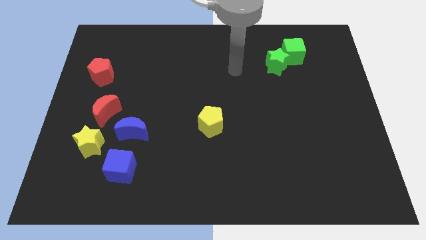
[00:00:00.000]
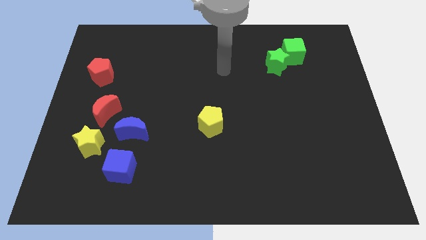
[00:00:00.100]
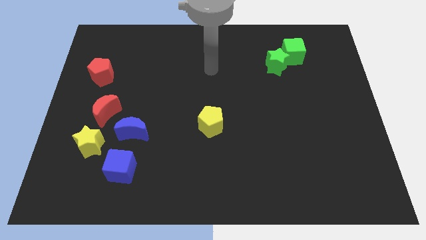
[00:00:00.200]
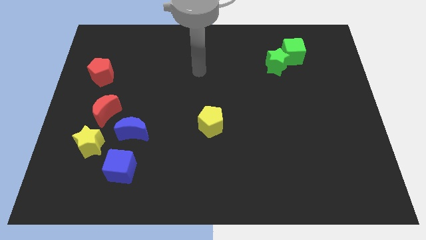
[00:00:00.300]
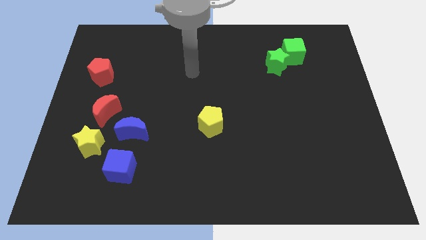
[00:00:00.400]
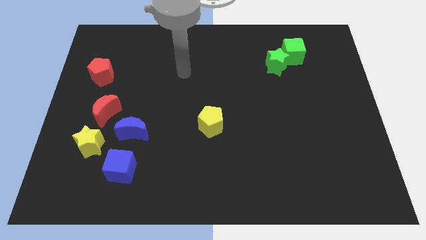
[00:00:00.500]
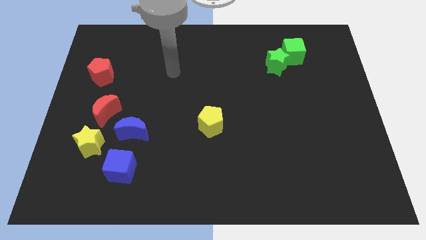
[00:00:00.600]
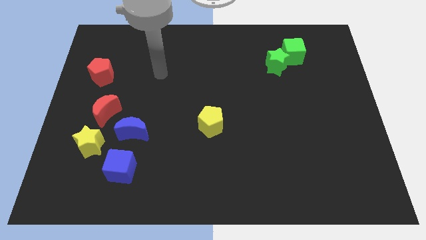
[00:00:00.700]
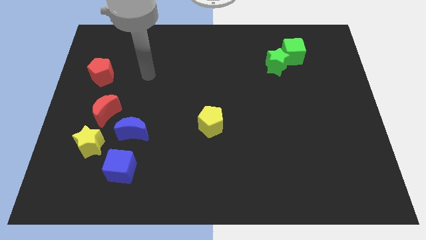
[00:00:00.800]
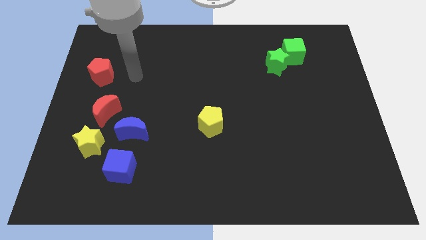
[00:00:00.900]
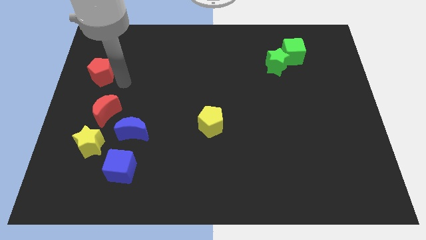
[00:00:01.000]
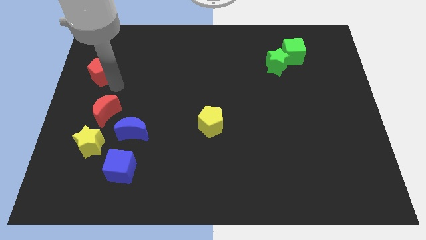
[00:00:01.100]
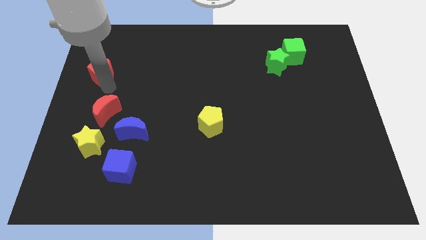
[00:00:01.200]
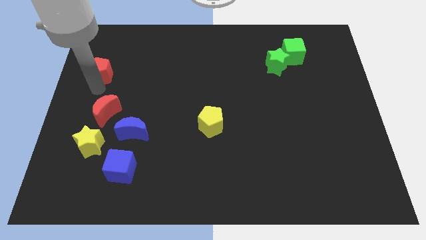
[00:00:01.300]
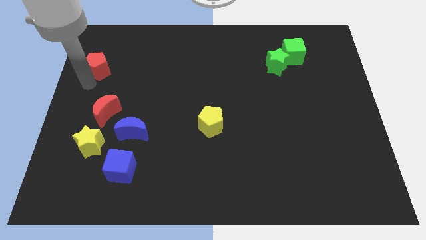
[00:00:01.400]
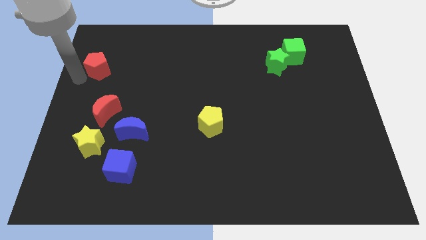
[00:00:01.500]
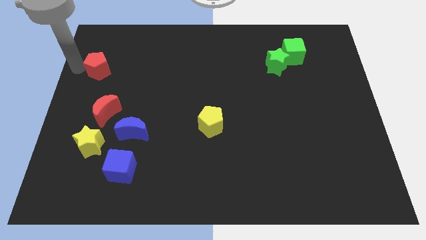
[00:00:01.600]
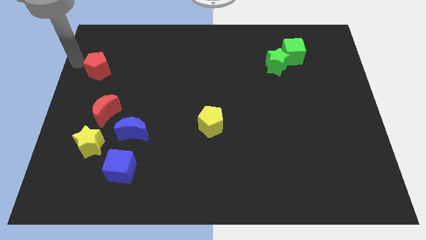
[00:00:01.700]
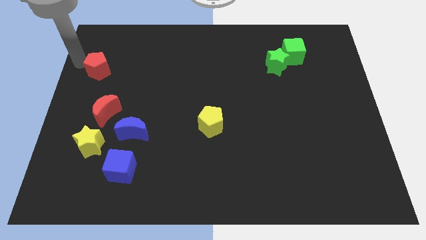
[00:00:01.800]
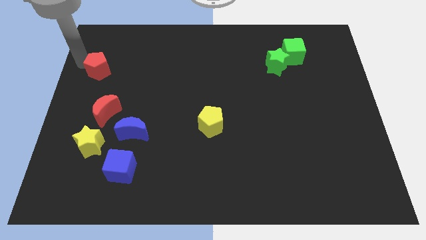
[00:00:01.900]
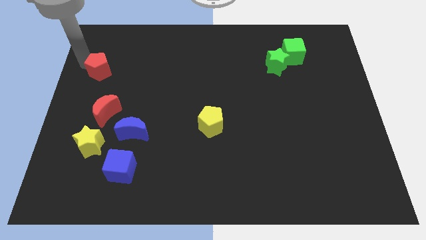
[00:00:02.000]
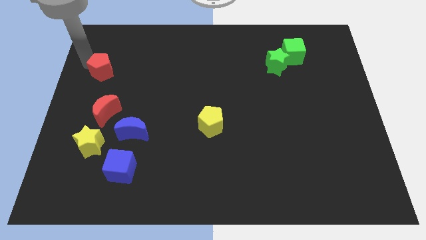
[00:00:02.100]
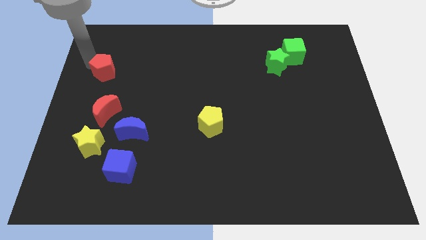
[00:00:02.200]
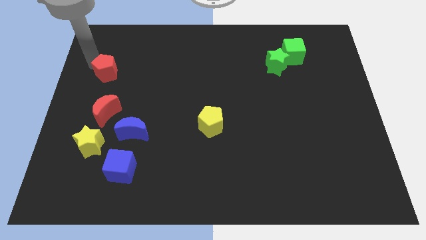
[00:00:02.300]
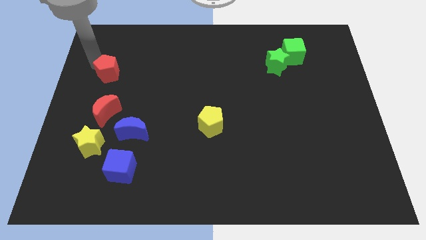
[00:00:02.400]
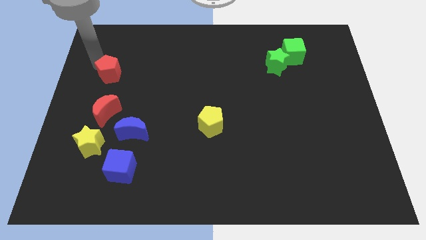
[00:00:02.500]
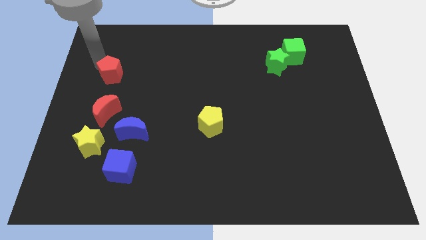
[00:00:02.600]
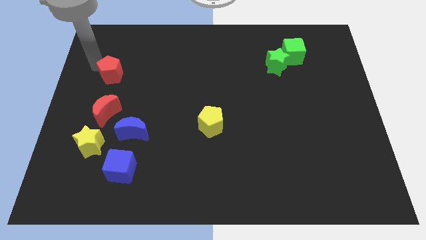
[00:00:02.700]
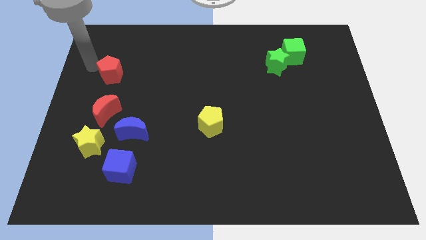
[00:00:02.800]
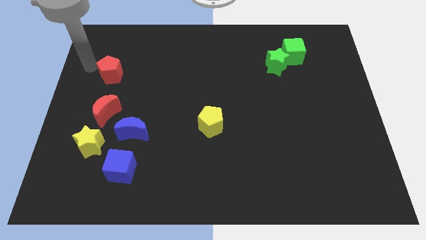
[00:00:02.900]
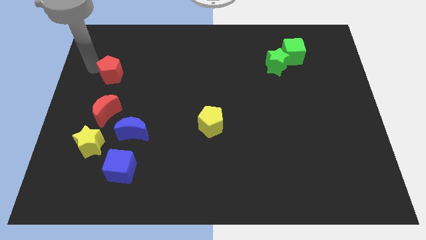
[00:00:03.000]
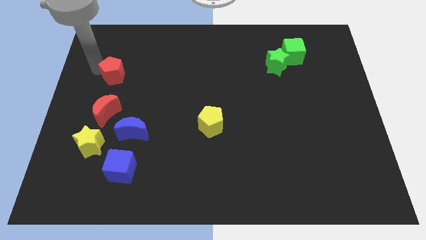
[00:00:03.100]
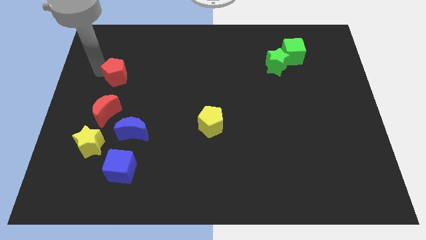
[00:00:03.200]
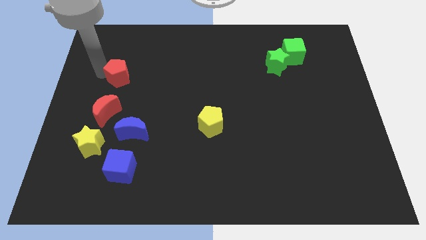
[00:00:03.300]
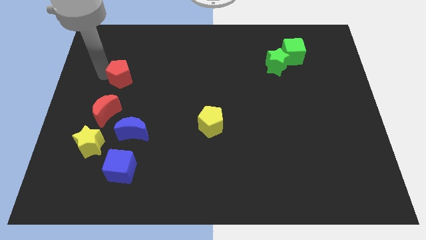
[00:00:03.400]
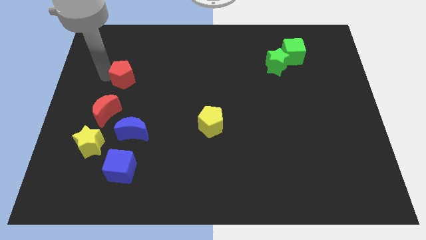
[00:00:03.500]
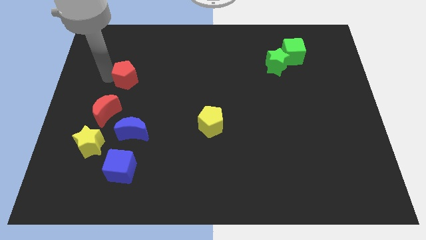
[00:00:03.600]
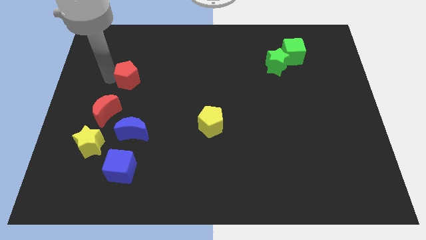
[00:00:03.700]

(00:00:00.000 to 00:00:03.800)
slightly push the red pentagon right

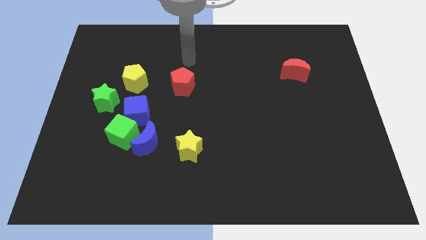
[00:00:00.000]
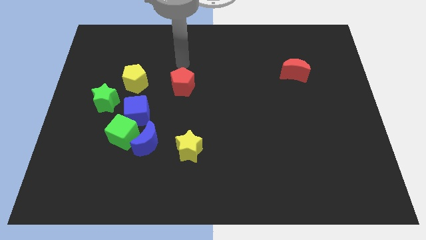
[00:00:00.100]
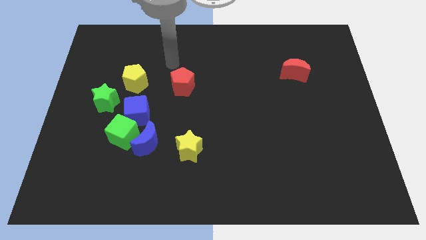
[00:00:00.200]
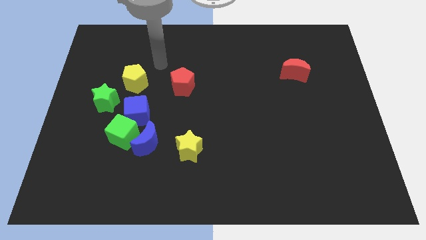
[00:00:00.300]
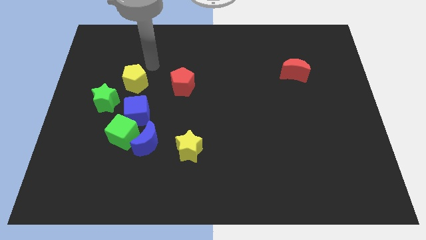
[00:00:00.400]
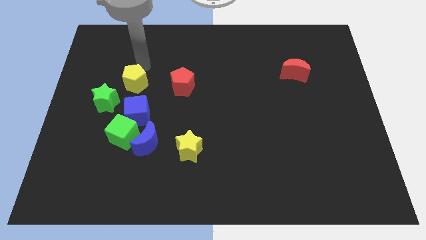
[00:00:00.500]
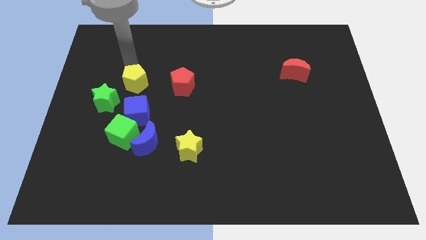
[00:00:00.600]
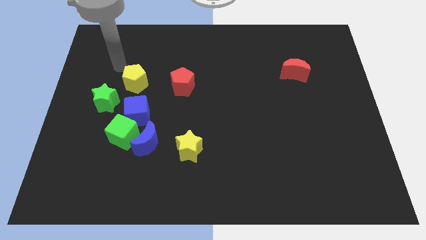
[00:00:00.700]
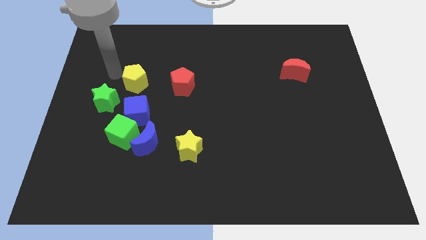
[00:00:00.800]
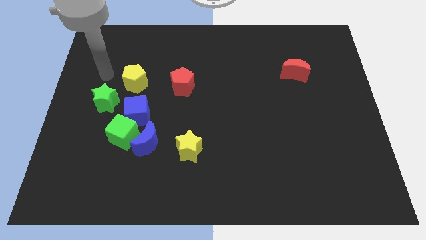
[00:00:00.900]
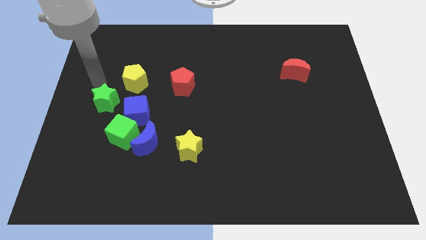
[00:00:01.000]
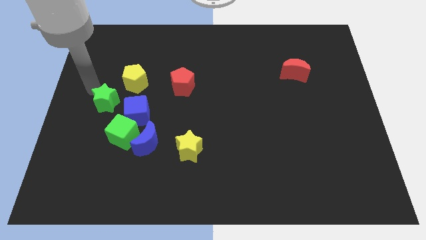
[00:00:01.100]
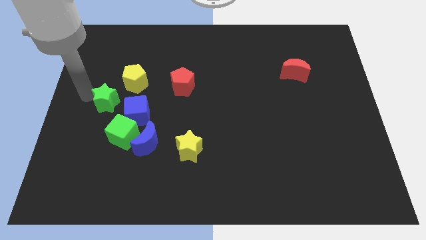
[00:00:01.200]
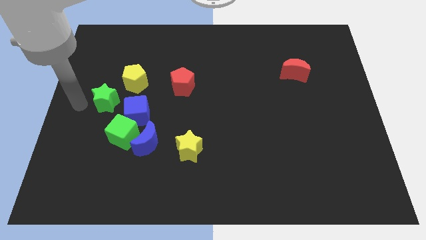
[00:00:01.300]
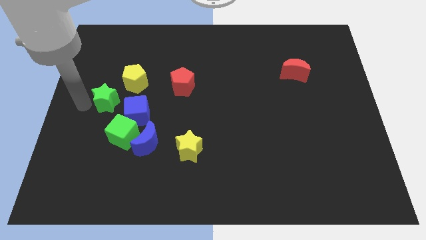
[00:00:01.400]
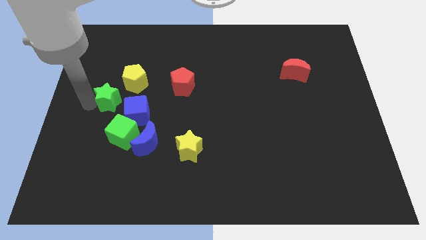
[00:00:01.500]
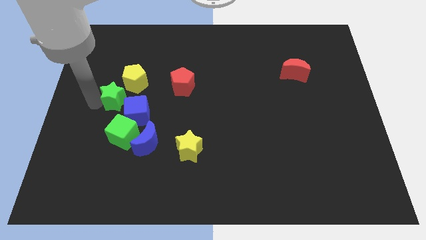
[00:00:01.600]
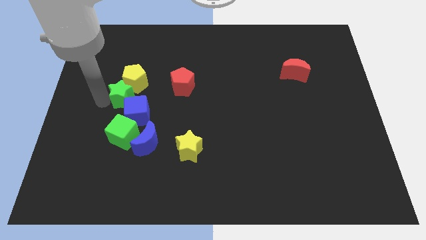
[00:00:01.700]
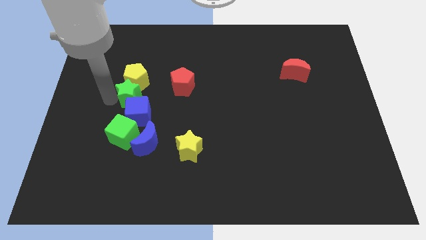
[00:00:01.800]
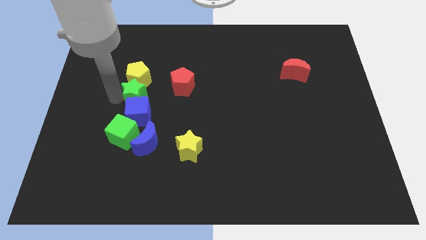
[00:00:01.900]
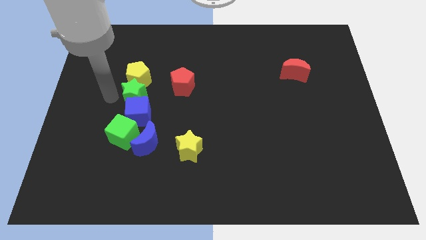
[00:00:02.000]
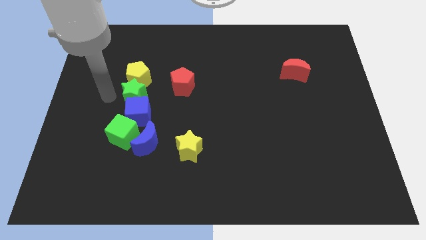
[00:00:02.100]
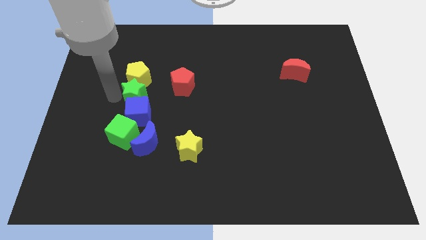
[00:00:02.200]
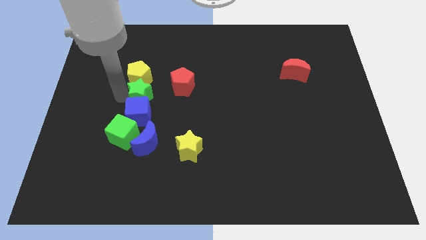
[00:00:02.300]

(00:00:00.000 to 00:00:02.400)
slide the green star a bit to the right

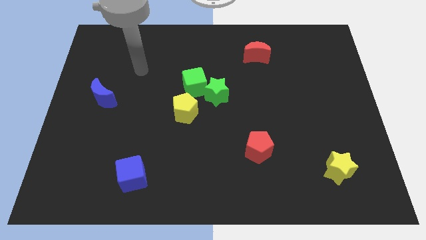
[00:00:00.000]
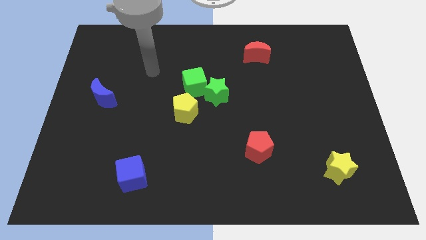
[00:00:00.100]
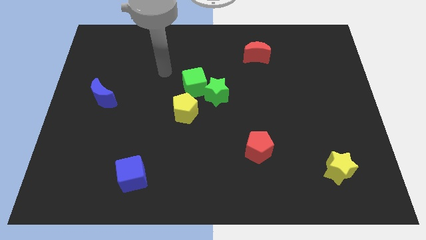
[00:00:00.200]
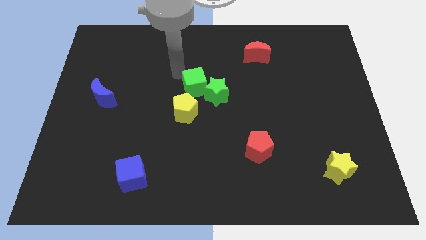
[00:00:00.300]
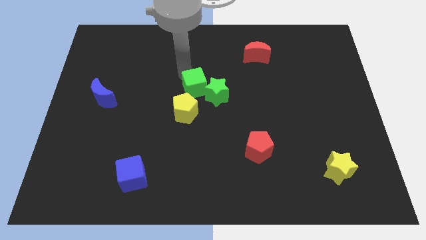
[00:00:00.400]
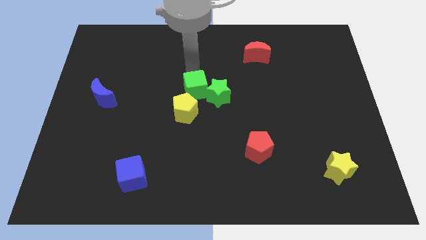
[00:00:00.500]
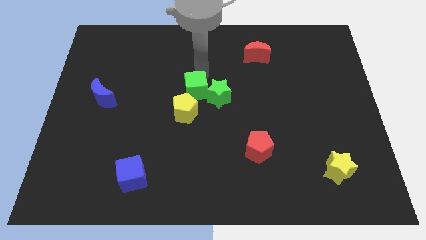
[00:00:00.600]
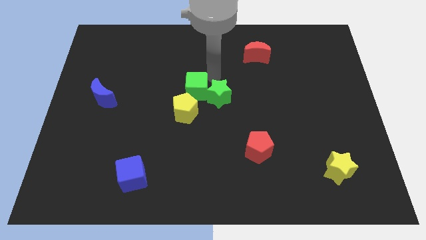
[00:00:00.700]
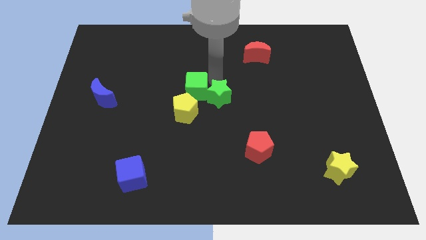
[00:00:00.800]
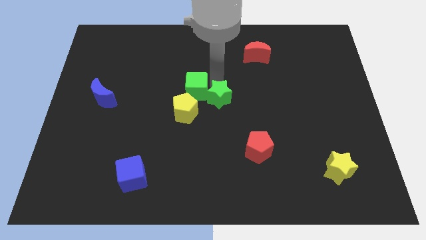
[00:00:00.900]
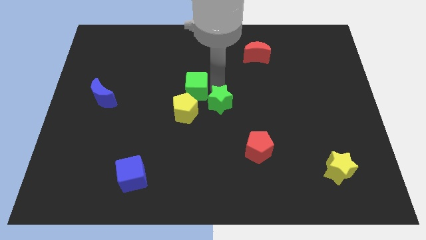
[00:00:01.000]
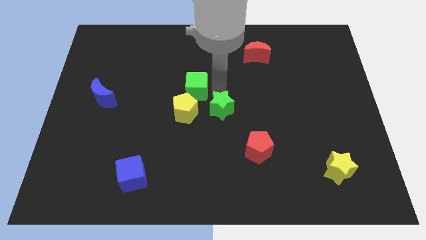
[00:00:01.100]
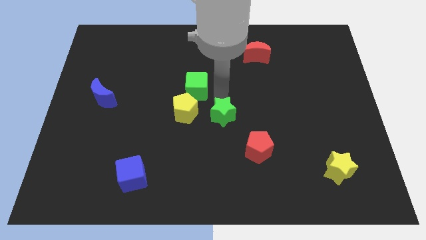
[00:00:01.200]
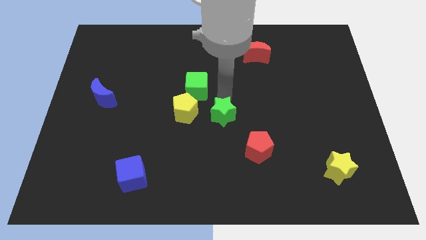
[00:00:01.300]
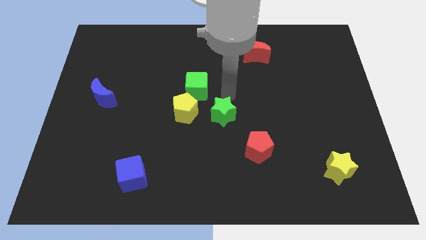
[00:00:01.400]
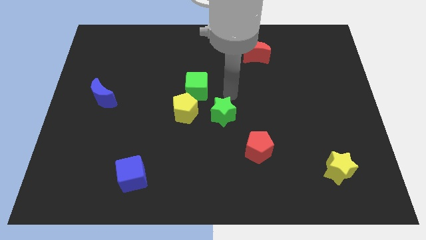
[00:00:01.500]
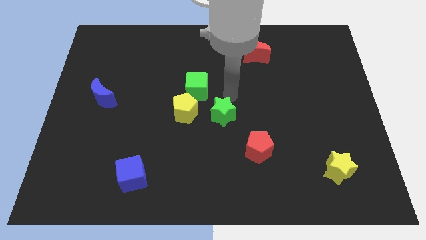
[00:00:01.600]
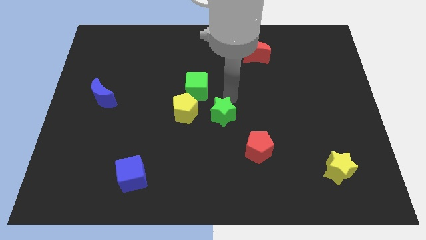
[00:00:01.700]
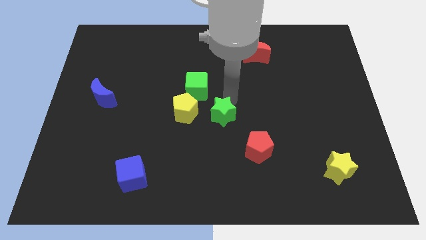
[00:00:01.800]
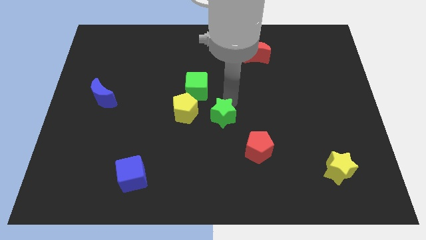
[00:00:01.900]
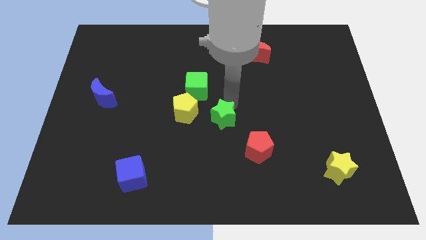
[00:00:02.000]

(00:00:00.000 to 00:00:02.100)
slide the green star down a little bit
